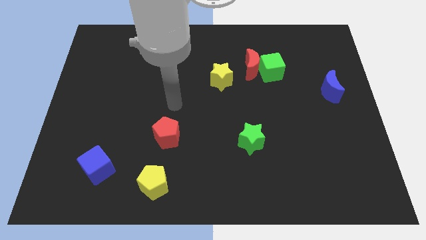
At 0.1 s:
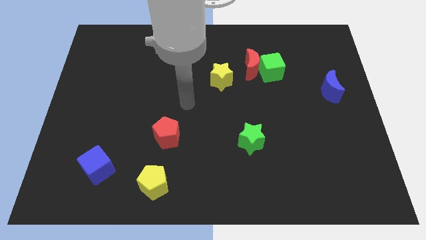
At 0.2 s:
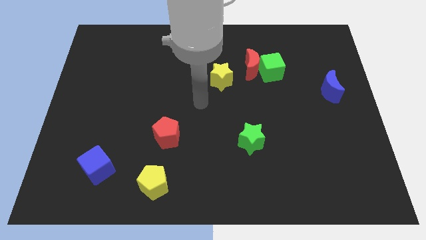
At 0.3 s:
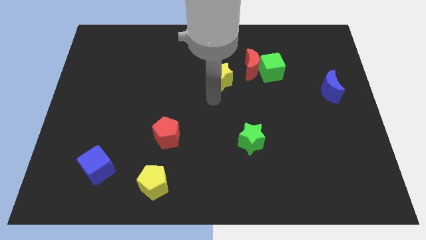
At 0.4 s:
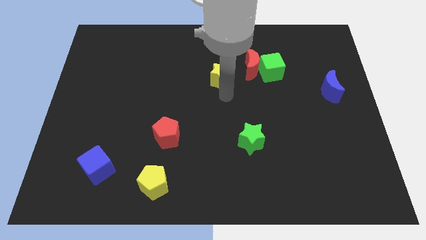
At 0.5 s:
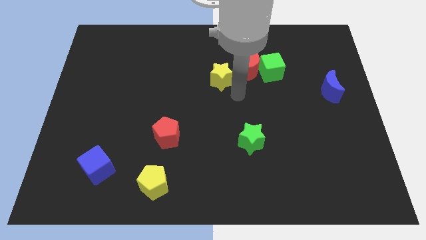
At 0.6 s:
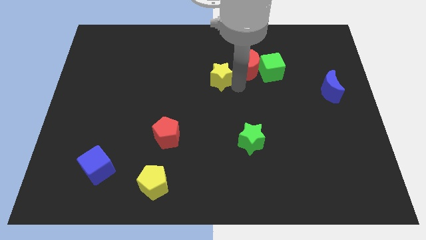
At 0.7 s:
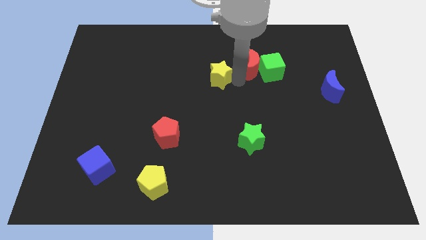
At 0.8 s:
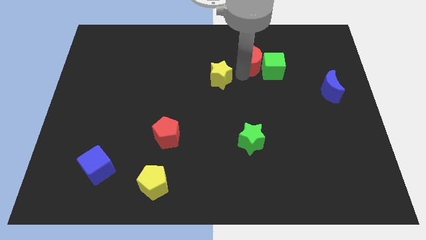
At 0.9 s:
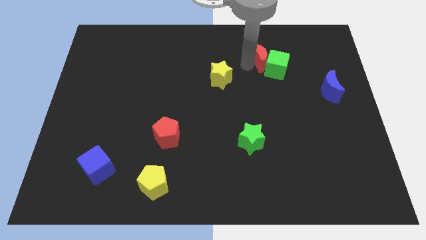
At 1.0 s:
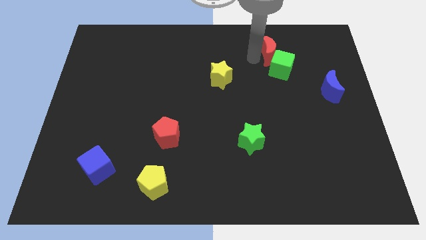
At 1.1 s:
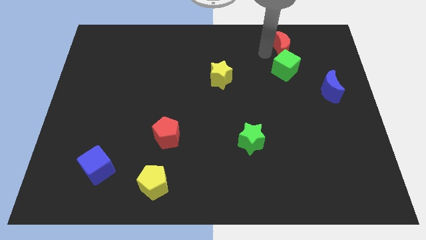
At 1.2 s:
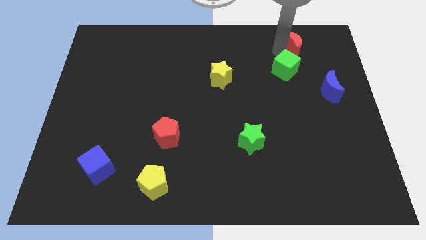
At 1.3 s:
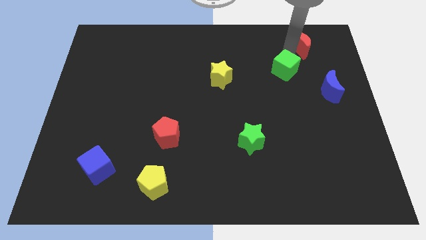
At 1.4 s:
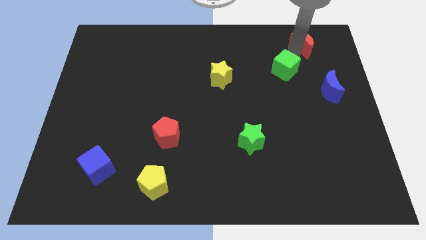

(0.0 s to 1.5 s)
pull the green cube apart from the red moon

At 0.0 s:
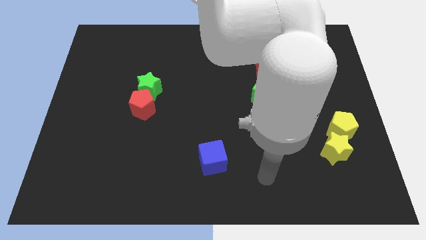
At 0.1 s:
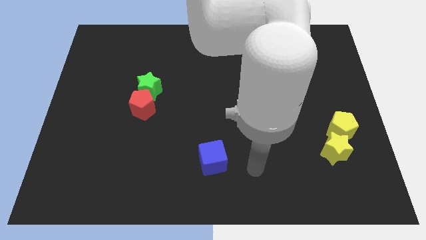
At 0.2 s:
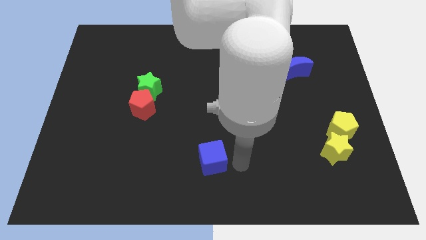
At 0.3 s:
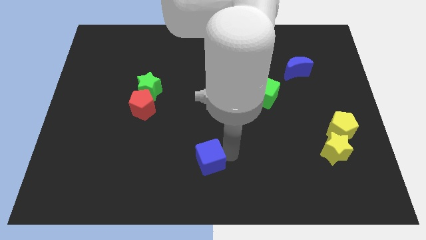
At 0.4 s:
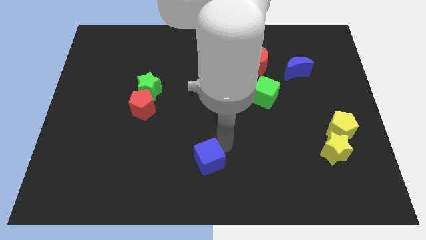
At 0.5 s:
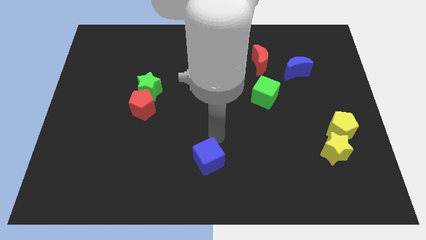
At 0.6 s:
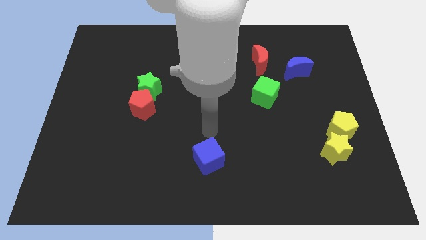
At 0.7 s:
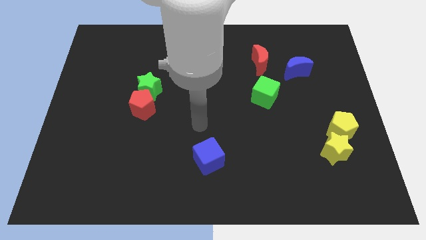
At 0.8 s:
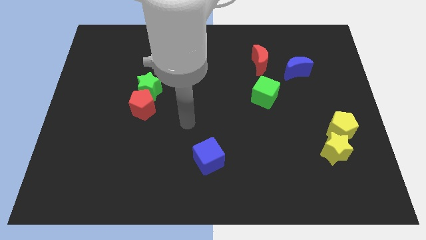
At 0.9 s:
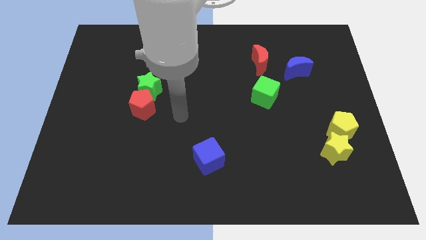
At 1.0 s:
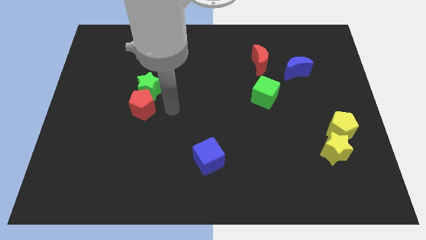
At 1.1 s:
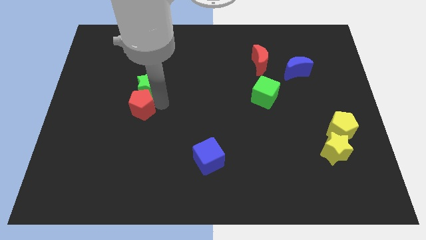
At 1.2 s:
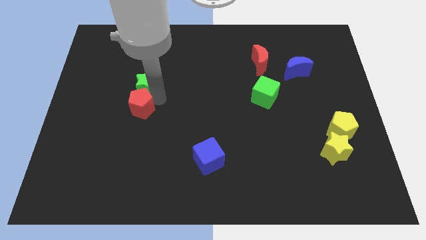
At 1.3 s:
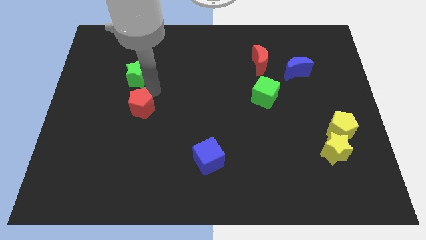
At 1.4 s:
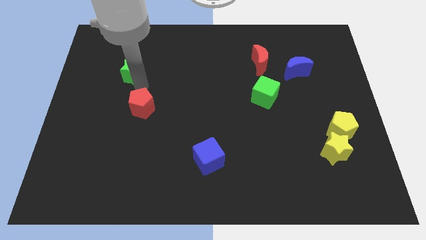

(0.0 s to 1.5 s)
pull the red pentagon apart from the green star

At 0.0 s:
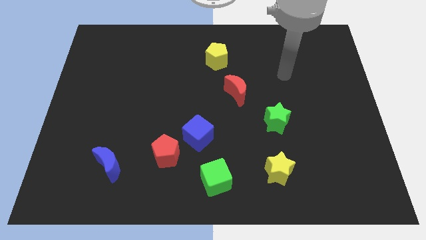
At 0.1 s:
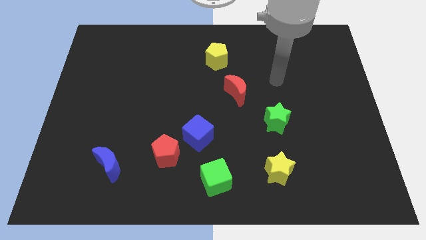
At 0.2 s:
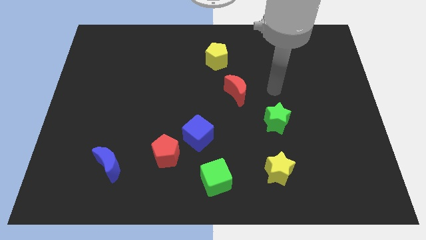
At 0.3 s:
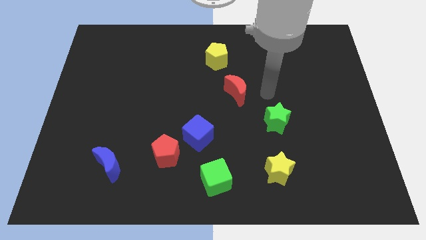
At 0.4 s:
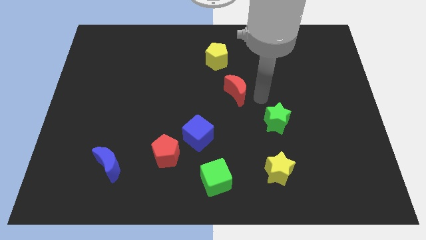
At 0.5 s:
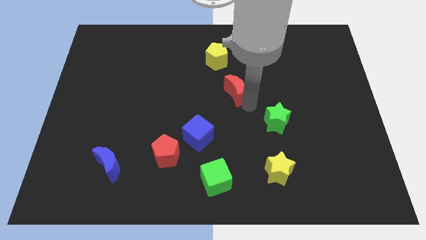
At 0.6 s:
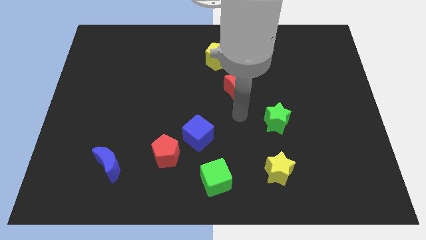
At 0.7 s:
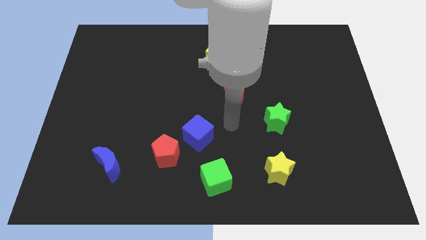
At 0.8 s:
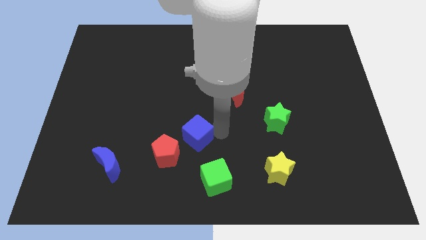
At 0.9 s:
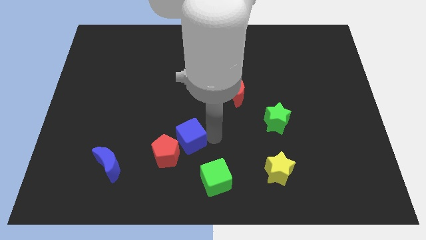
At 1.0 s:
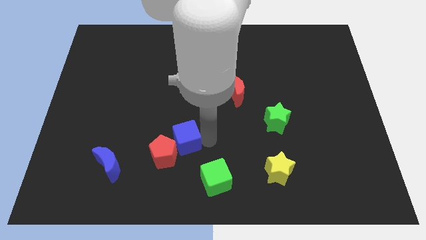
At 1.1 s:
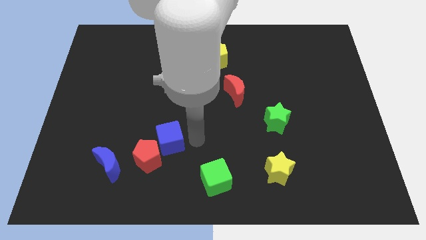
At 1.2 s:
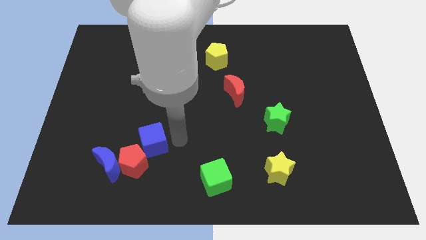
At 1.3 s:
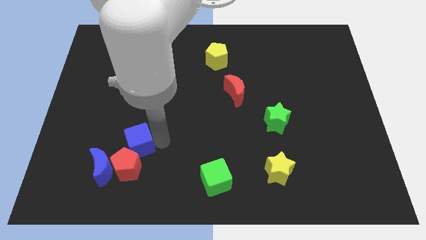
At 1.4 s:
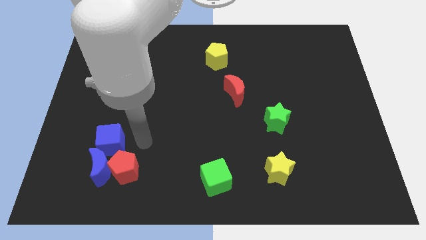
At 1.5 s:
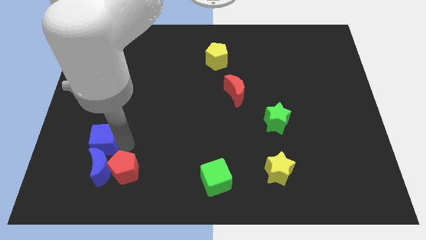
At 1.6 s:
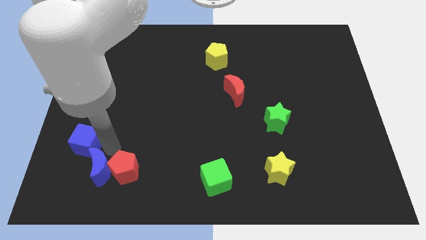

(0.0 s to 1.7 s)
separate the red pentagon from the blue cube

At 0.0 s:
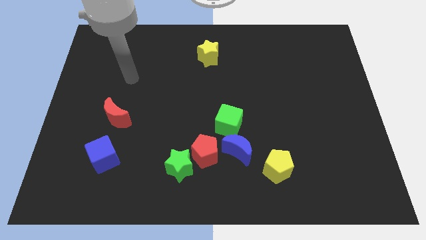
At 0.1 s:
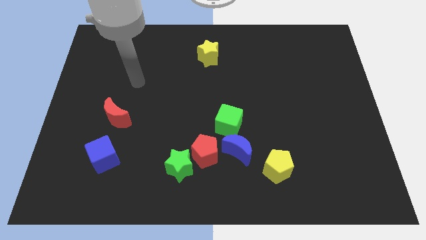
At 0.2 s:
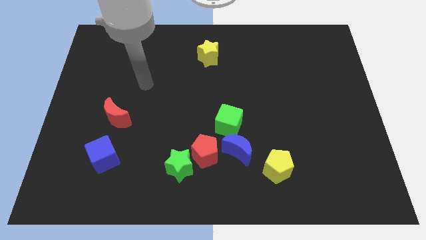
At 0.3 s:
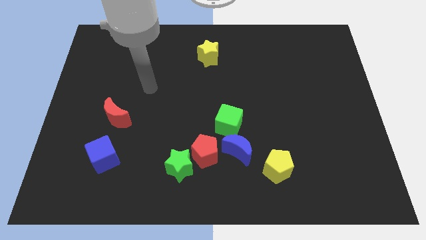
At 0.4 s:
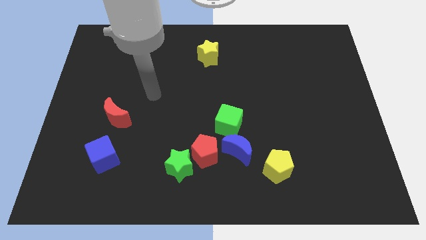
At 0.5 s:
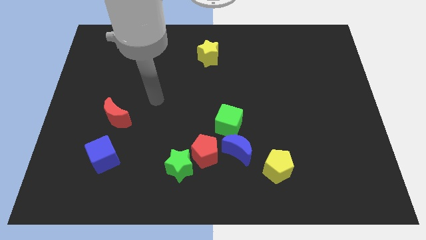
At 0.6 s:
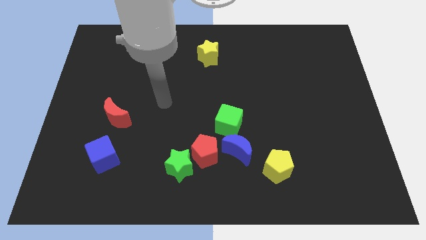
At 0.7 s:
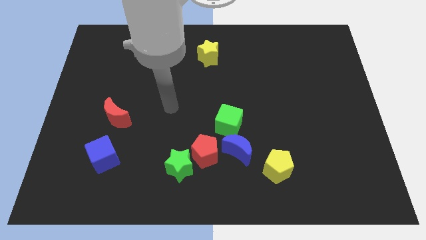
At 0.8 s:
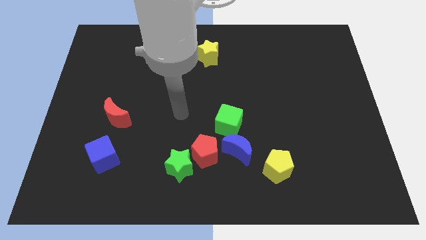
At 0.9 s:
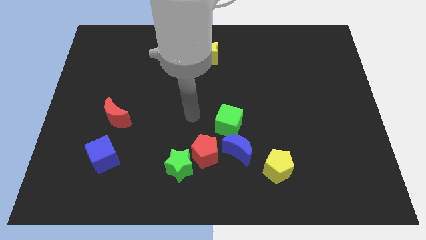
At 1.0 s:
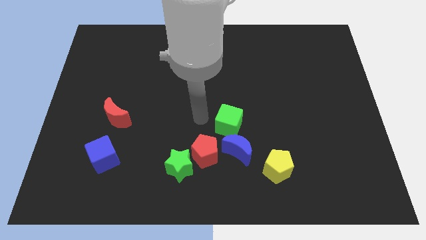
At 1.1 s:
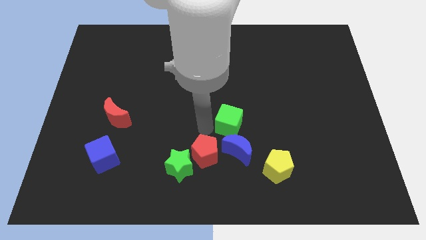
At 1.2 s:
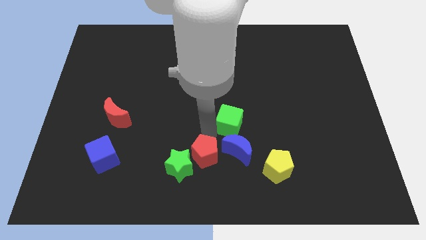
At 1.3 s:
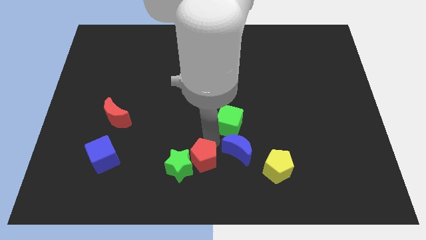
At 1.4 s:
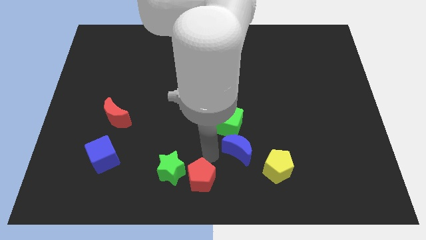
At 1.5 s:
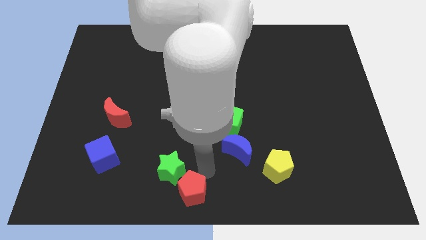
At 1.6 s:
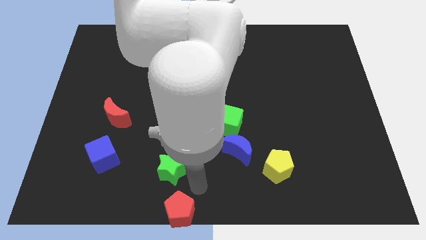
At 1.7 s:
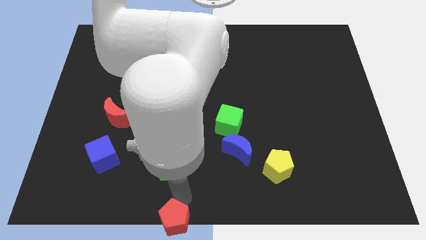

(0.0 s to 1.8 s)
move the green star away from the red pentagon

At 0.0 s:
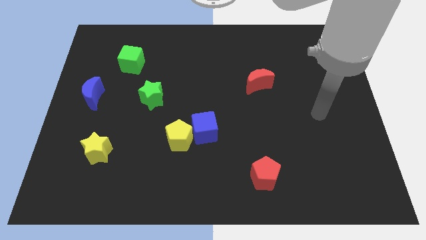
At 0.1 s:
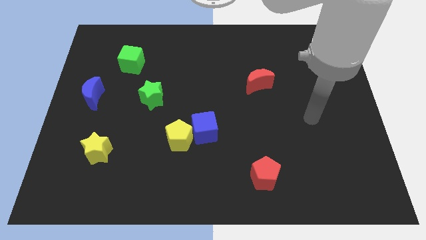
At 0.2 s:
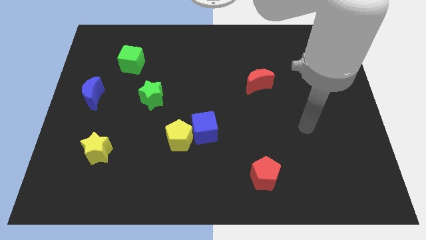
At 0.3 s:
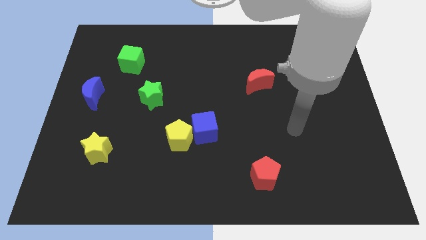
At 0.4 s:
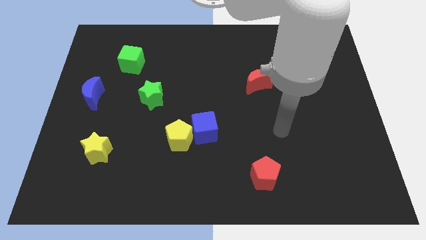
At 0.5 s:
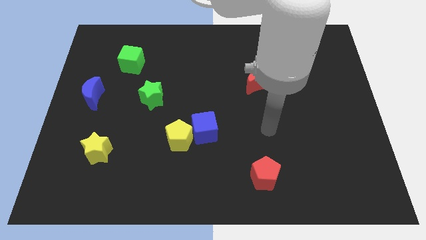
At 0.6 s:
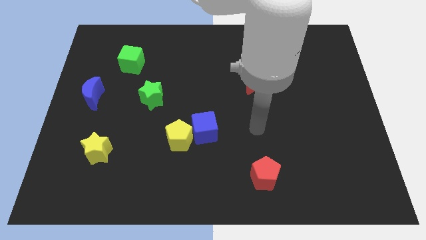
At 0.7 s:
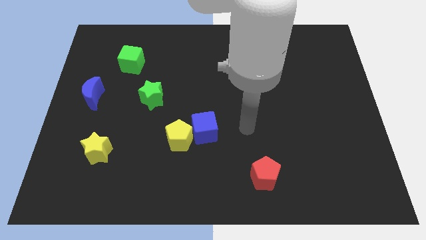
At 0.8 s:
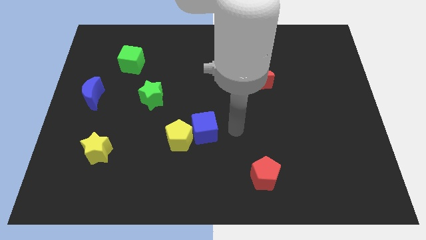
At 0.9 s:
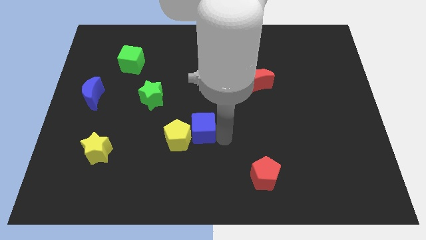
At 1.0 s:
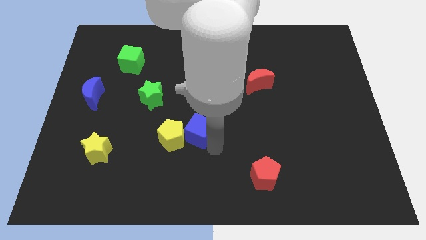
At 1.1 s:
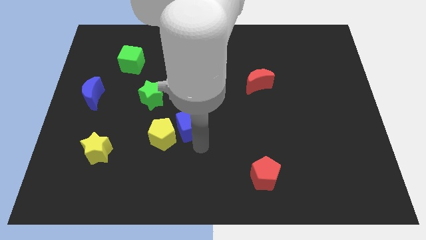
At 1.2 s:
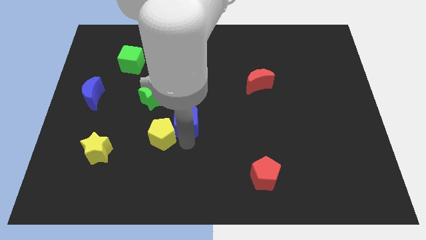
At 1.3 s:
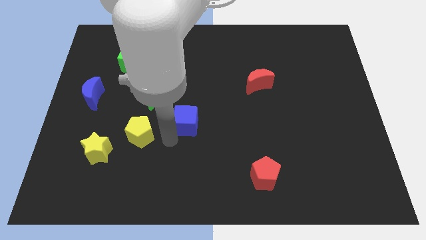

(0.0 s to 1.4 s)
pull the blue cube apart from the yellow pentagon

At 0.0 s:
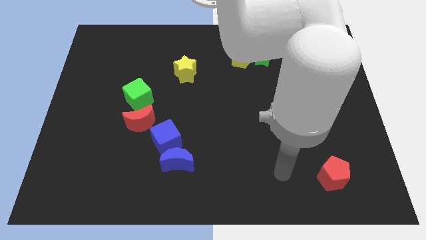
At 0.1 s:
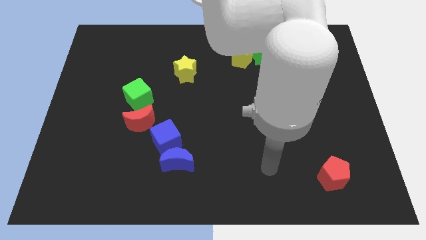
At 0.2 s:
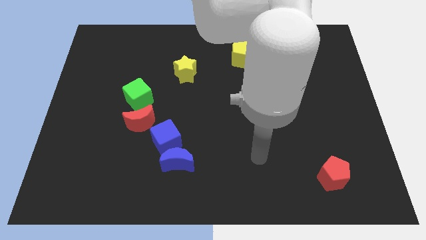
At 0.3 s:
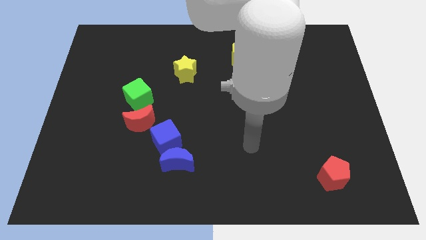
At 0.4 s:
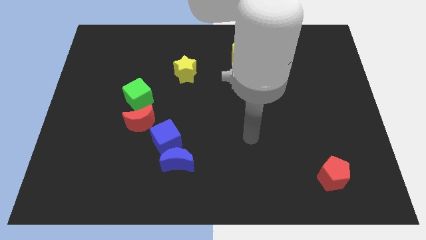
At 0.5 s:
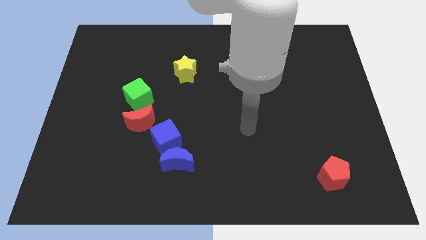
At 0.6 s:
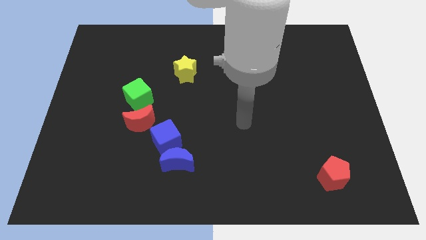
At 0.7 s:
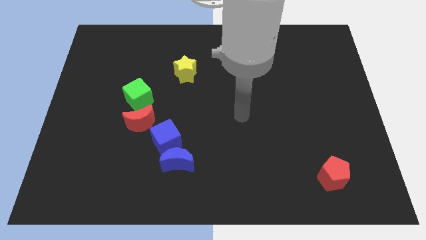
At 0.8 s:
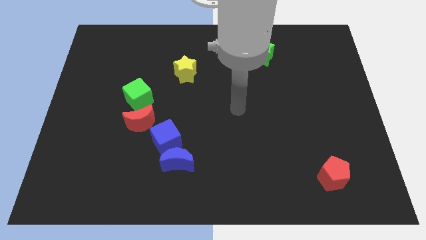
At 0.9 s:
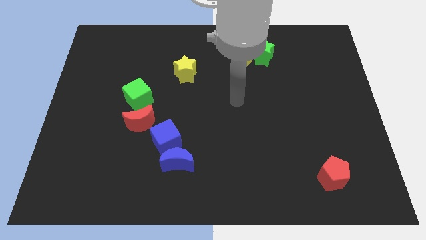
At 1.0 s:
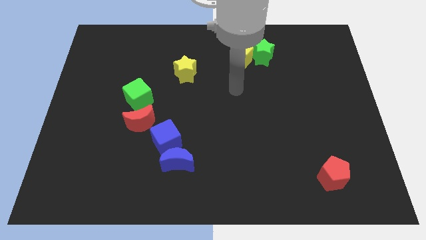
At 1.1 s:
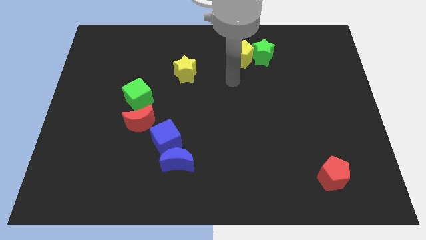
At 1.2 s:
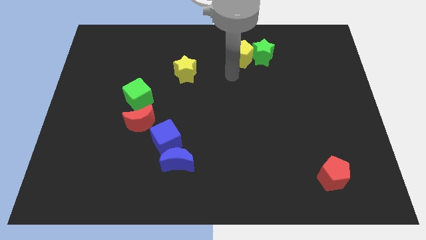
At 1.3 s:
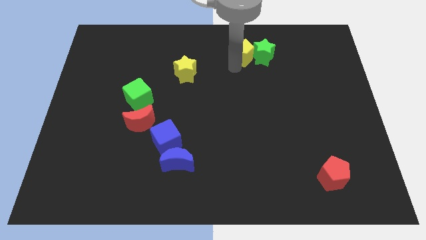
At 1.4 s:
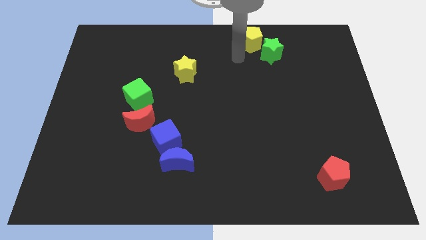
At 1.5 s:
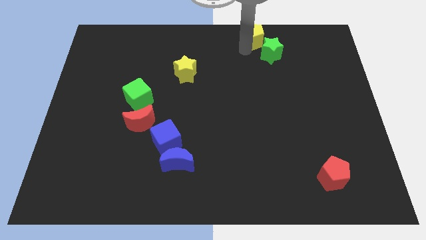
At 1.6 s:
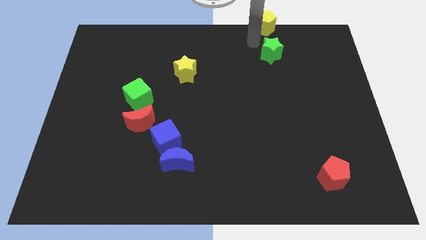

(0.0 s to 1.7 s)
separate the green star from the yellow pentagon
